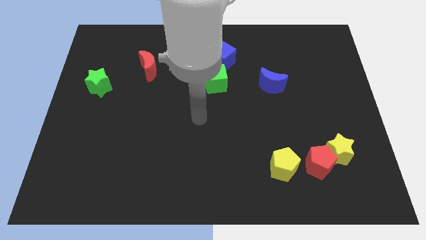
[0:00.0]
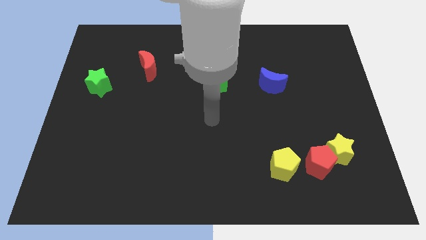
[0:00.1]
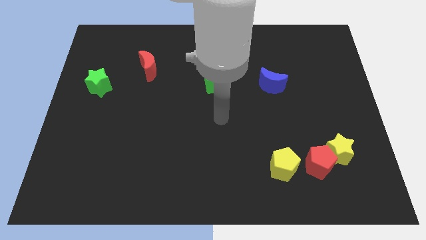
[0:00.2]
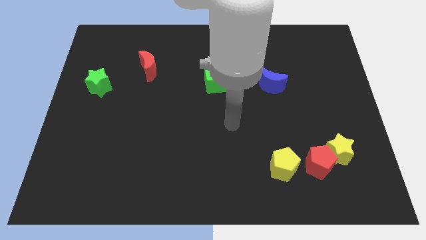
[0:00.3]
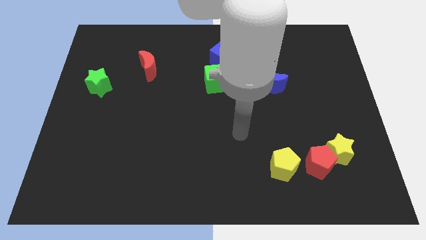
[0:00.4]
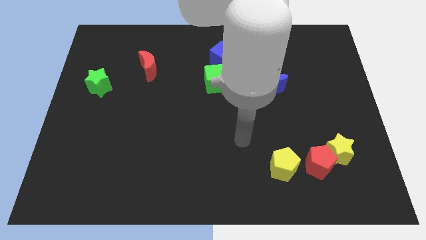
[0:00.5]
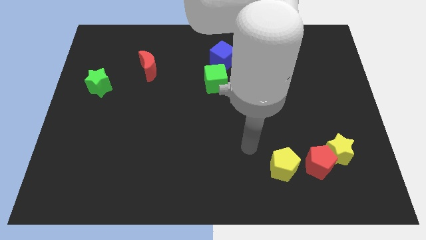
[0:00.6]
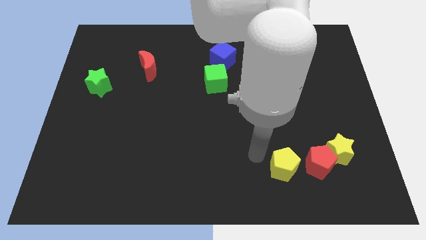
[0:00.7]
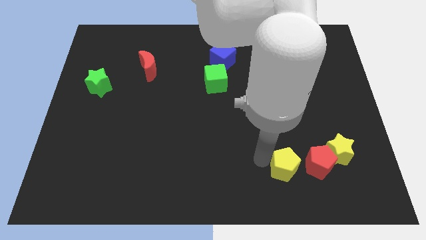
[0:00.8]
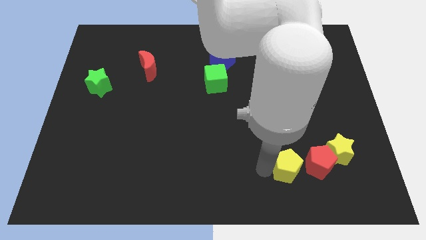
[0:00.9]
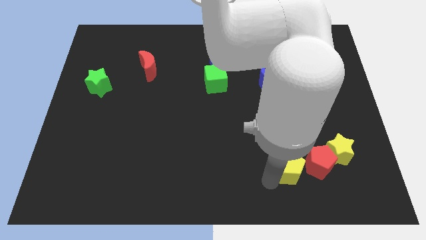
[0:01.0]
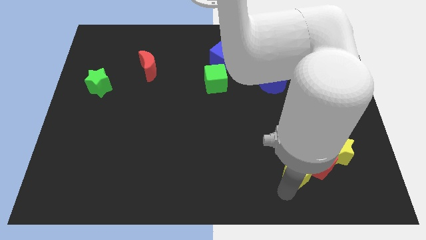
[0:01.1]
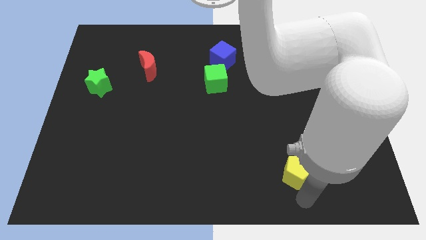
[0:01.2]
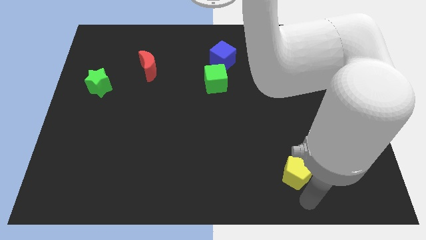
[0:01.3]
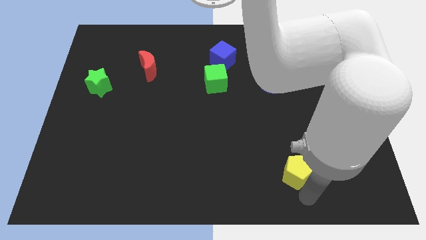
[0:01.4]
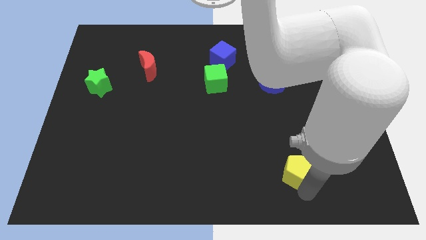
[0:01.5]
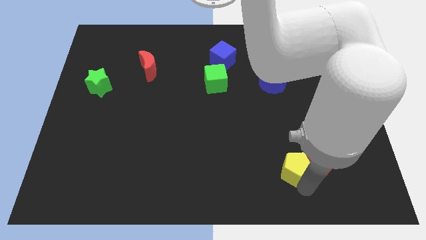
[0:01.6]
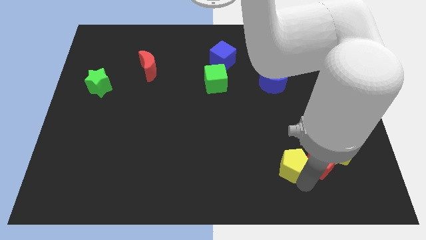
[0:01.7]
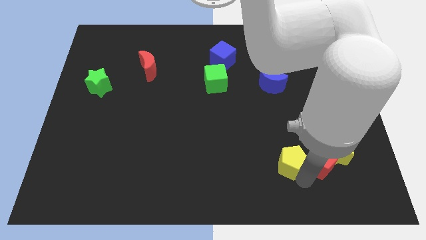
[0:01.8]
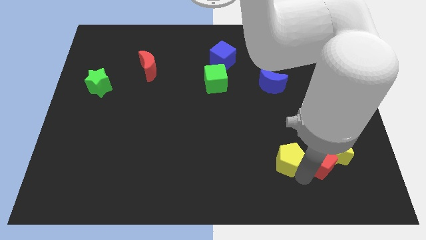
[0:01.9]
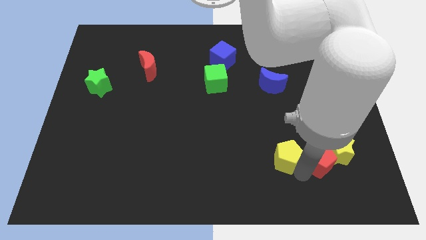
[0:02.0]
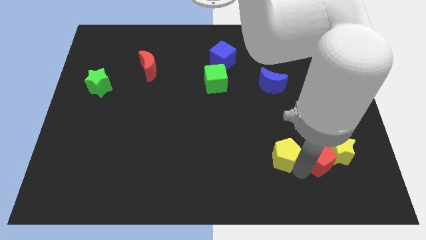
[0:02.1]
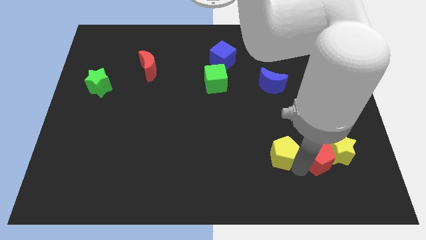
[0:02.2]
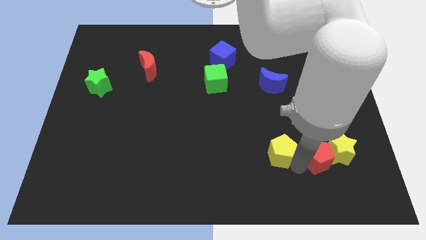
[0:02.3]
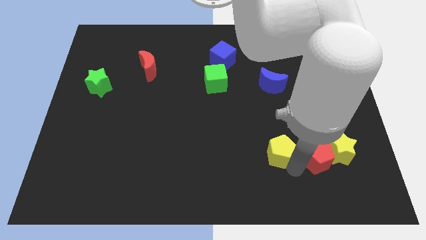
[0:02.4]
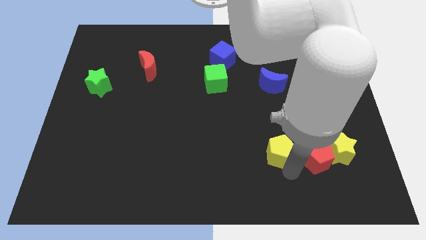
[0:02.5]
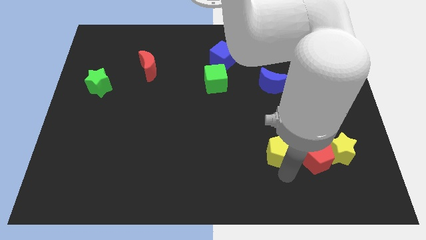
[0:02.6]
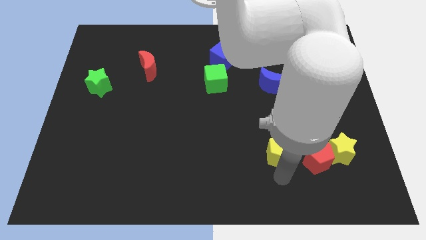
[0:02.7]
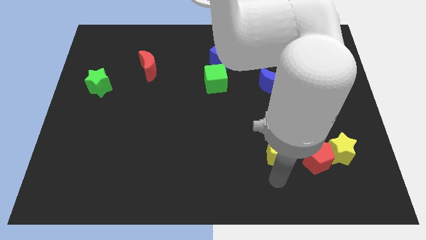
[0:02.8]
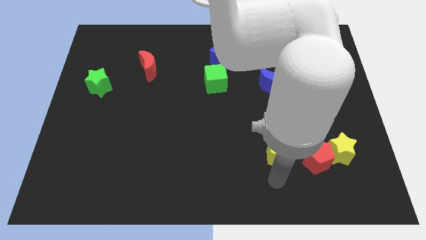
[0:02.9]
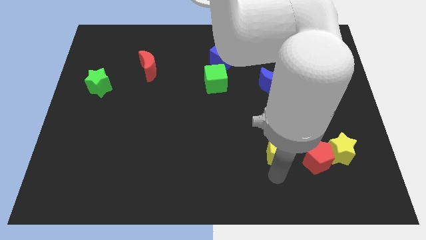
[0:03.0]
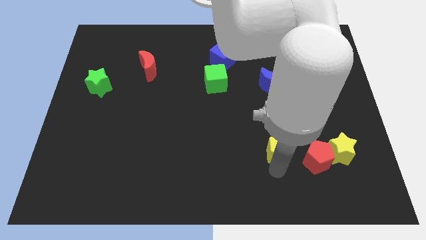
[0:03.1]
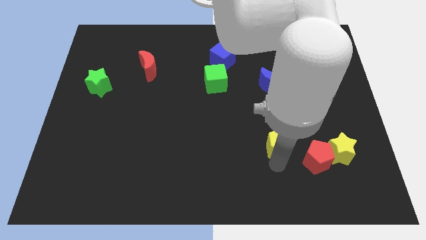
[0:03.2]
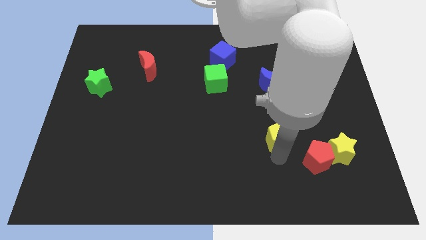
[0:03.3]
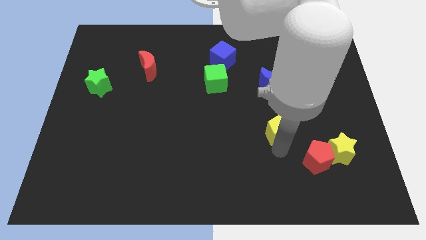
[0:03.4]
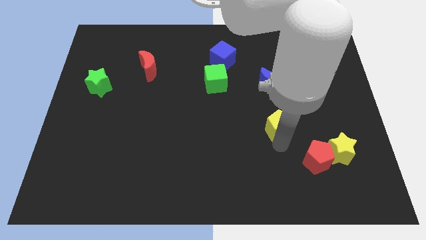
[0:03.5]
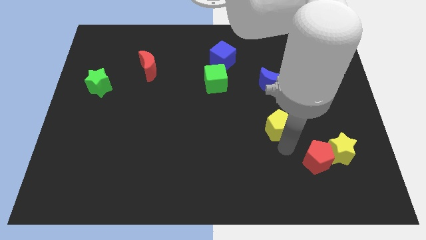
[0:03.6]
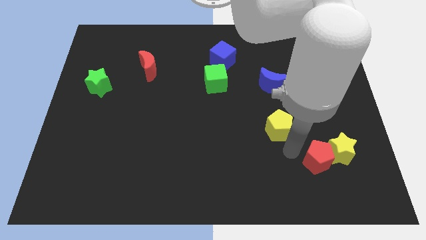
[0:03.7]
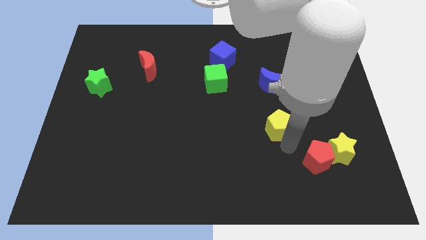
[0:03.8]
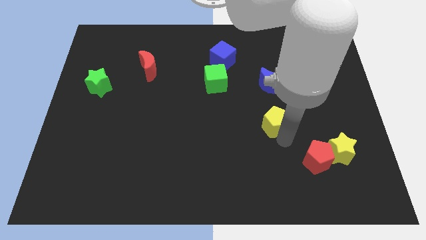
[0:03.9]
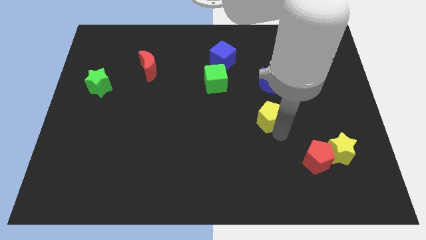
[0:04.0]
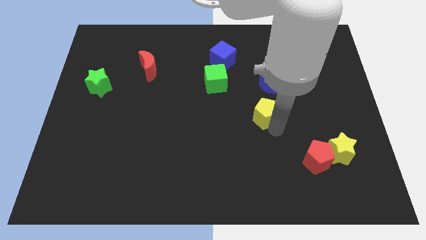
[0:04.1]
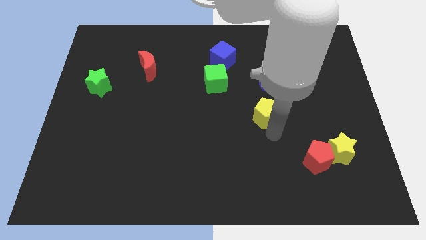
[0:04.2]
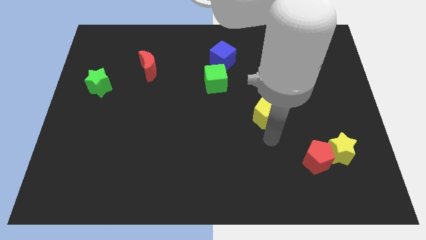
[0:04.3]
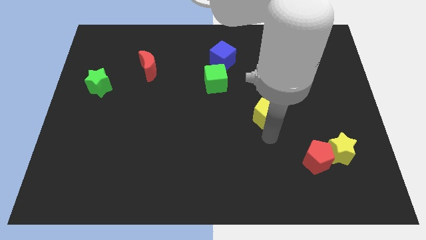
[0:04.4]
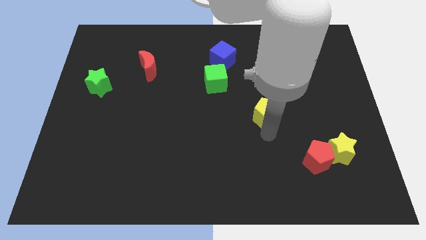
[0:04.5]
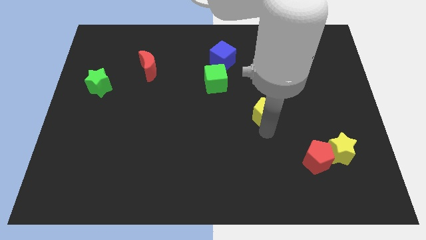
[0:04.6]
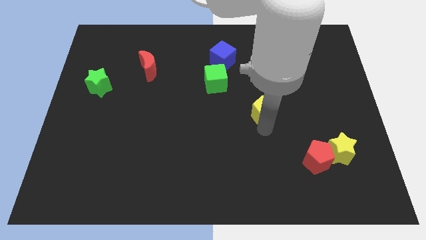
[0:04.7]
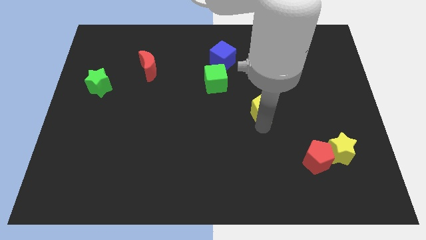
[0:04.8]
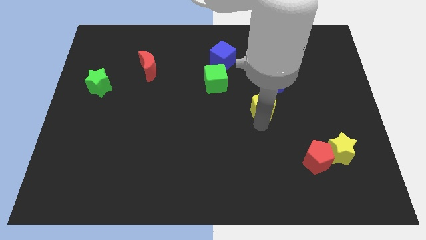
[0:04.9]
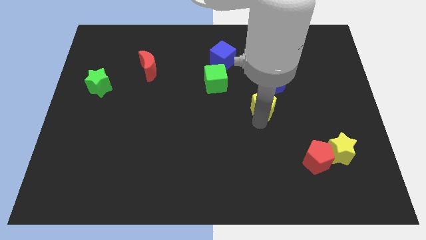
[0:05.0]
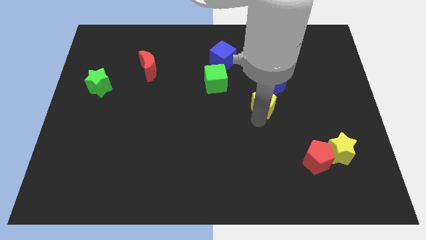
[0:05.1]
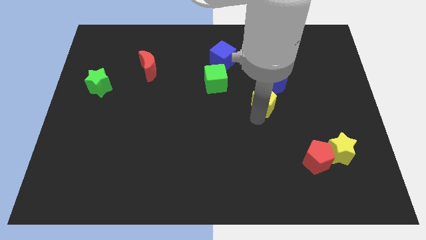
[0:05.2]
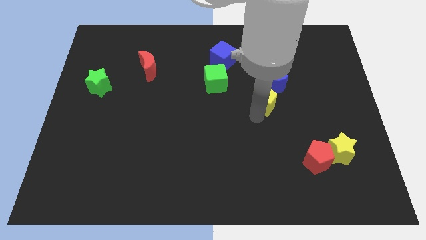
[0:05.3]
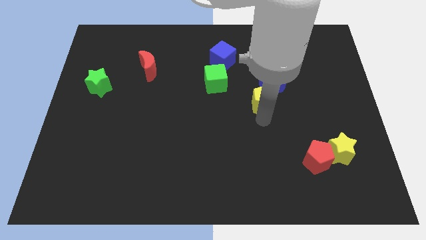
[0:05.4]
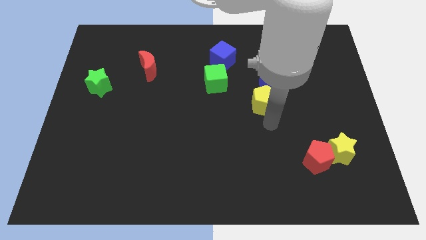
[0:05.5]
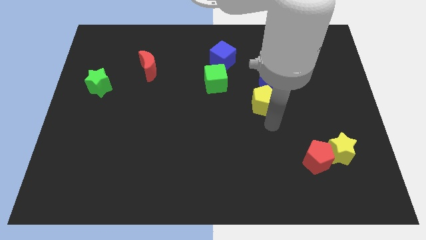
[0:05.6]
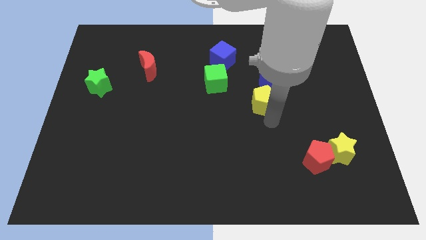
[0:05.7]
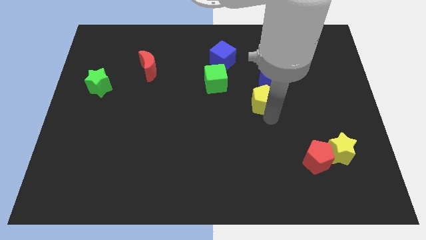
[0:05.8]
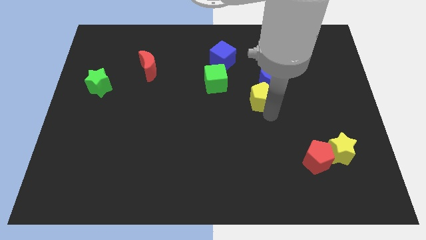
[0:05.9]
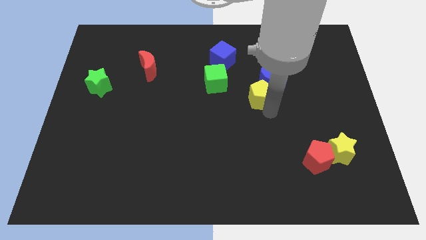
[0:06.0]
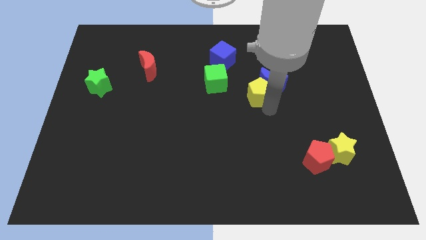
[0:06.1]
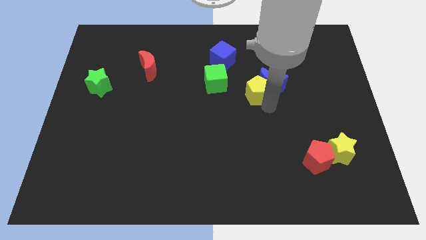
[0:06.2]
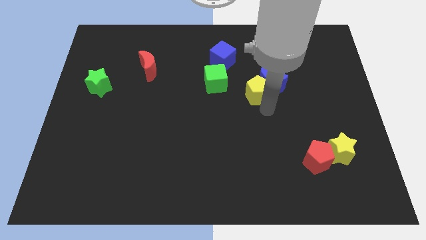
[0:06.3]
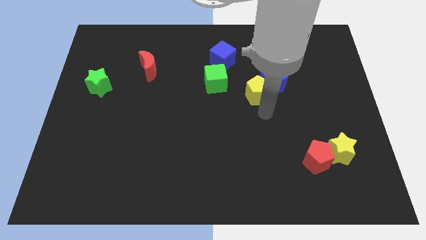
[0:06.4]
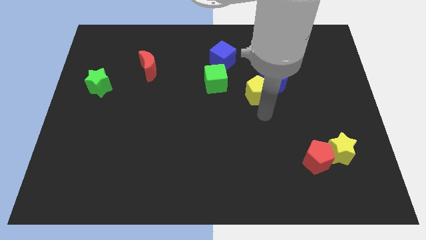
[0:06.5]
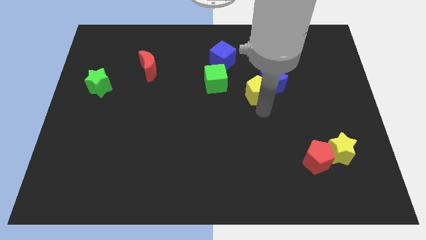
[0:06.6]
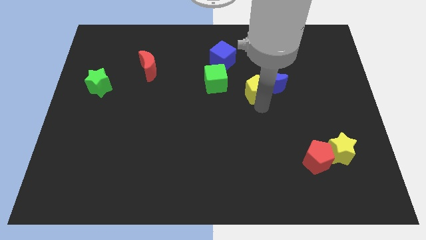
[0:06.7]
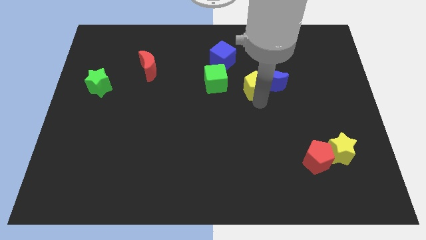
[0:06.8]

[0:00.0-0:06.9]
move the yellow pentagon up

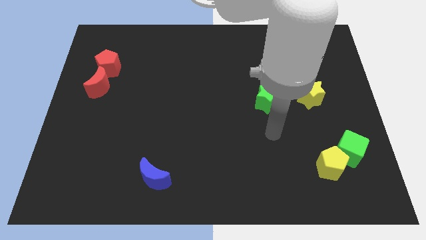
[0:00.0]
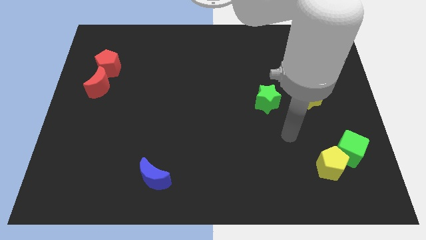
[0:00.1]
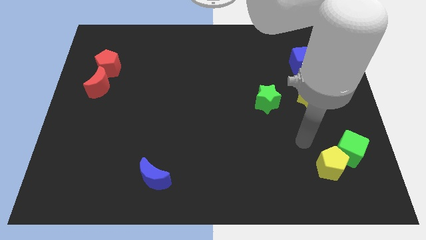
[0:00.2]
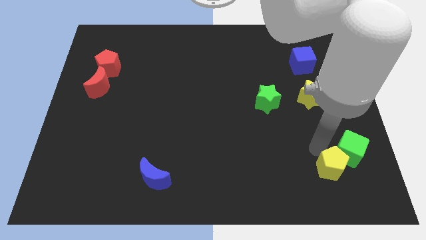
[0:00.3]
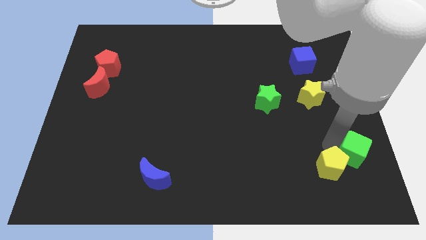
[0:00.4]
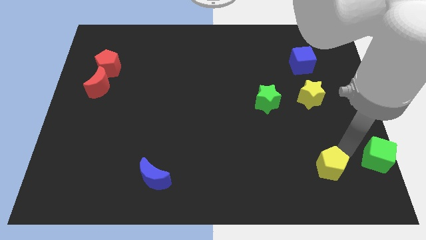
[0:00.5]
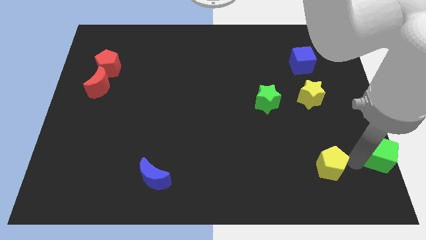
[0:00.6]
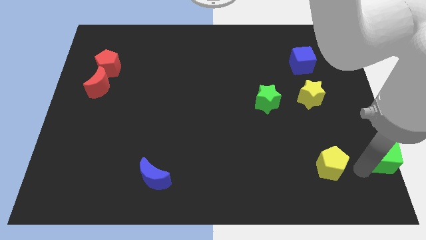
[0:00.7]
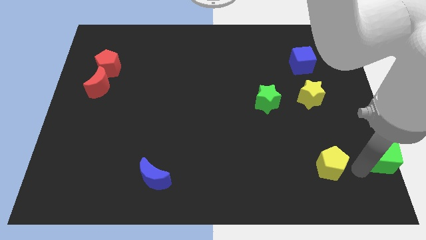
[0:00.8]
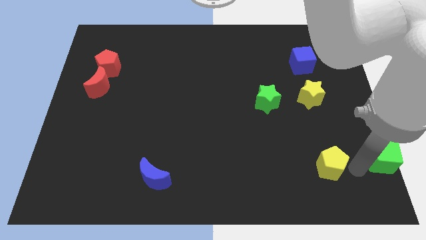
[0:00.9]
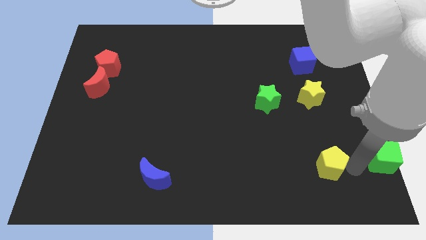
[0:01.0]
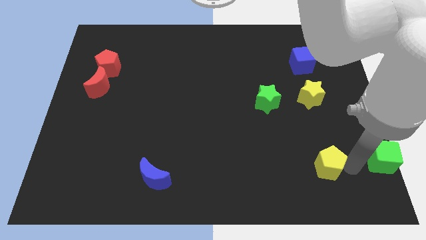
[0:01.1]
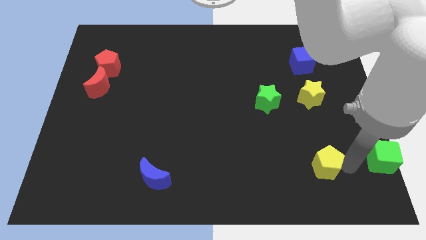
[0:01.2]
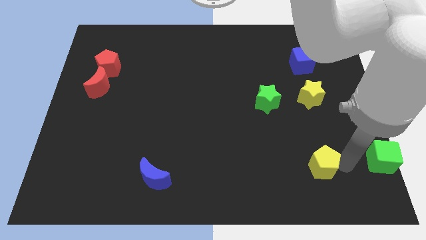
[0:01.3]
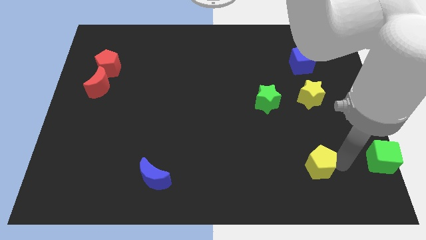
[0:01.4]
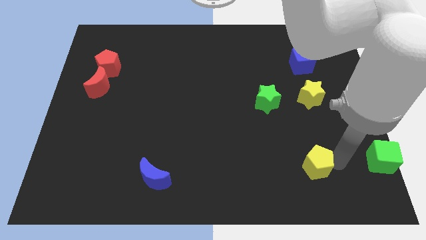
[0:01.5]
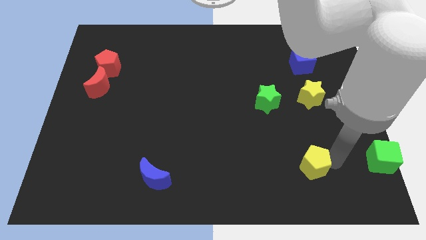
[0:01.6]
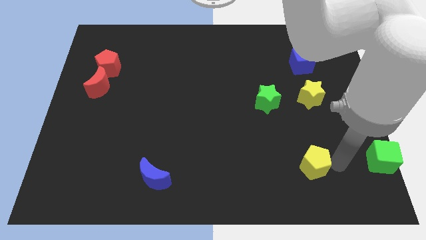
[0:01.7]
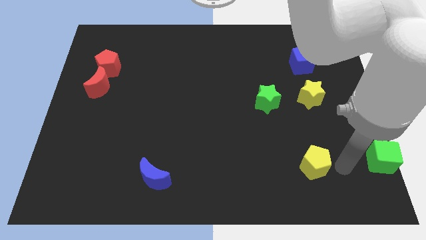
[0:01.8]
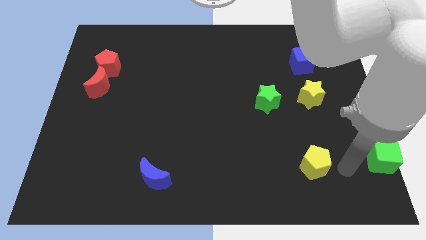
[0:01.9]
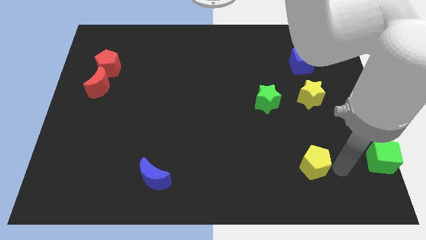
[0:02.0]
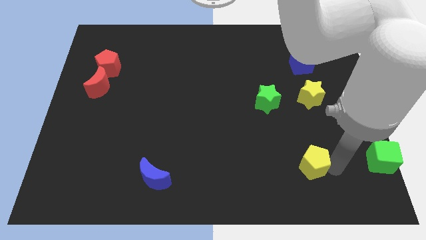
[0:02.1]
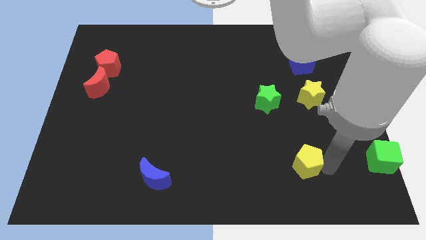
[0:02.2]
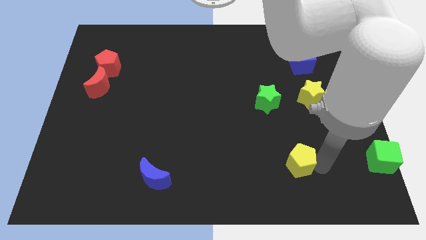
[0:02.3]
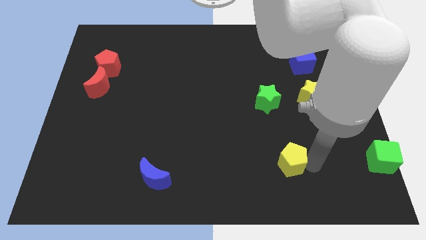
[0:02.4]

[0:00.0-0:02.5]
slightly push the yellow pentagon to the left
